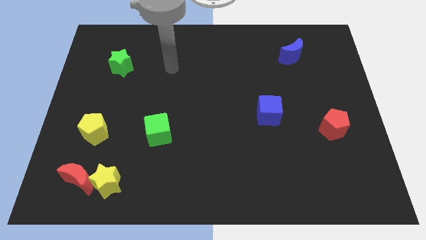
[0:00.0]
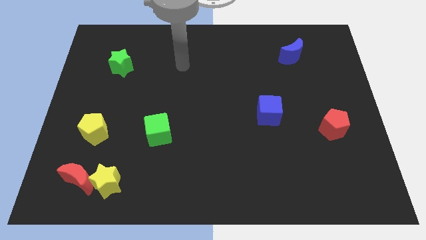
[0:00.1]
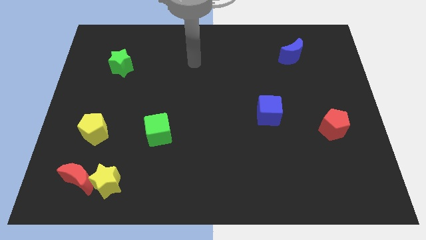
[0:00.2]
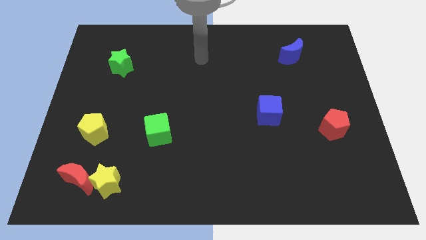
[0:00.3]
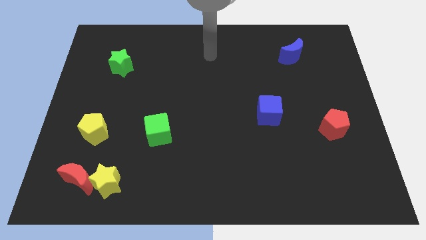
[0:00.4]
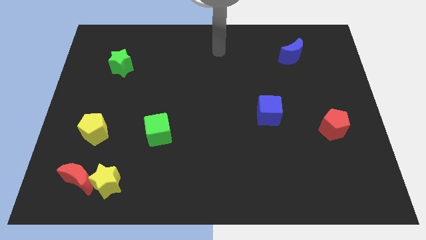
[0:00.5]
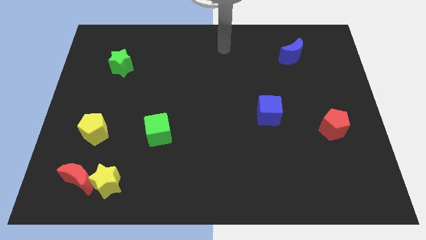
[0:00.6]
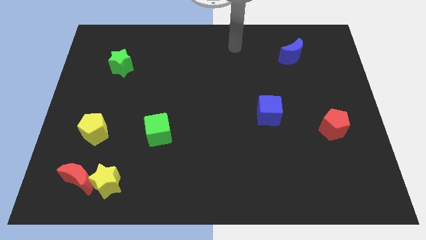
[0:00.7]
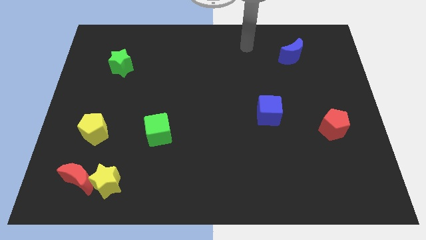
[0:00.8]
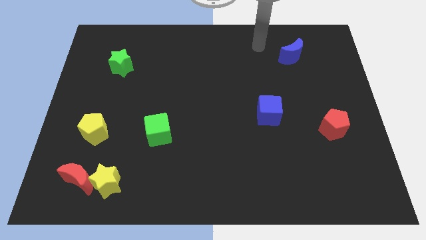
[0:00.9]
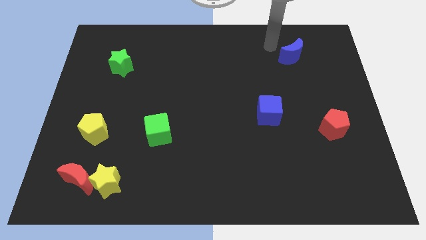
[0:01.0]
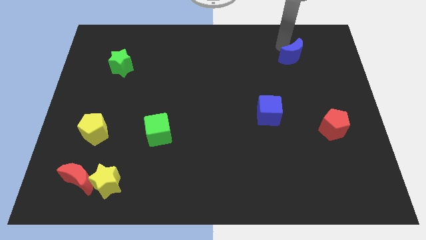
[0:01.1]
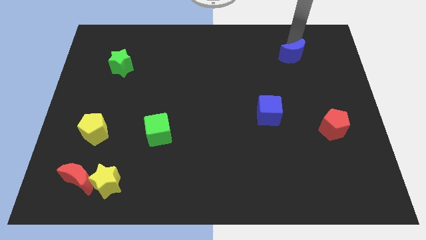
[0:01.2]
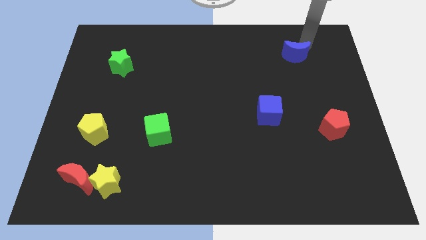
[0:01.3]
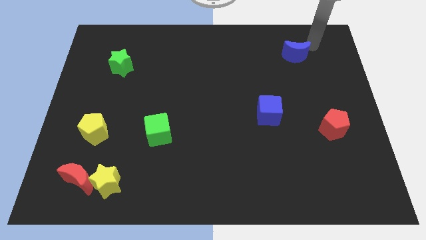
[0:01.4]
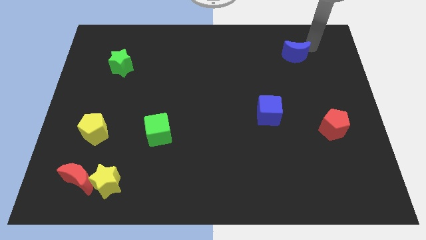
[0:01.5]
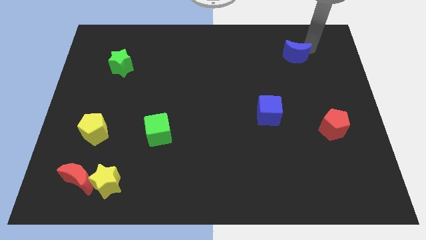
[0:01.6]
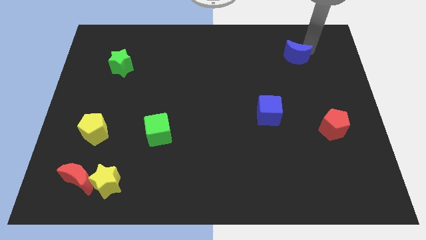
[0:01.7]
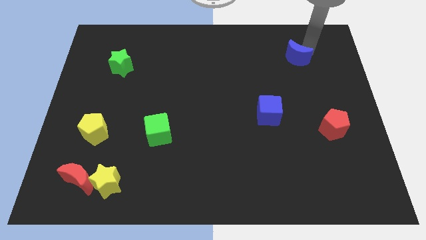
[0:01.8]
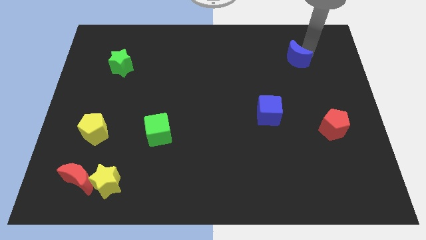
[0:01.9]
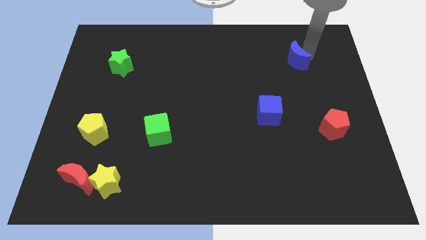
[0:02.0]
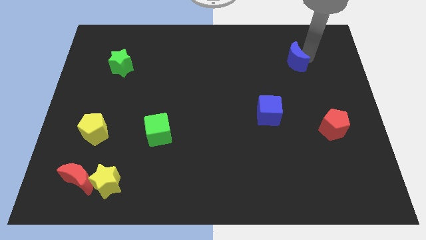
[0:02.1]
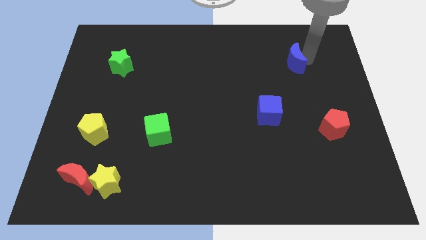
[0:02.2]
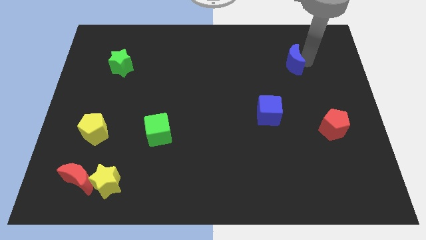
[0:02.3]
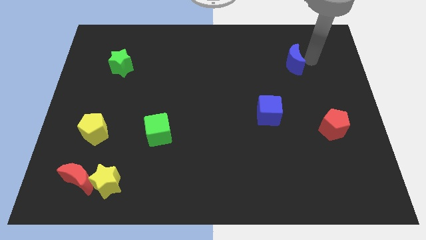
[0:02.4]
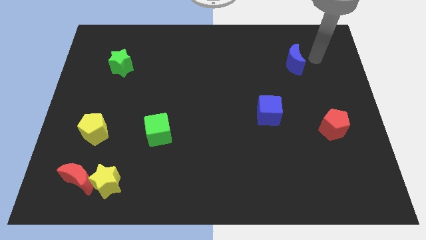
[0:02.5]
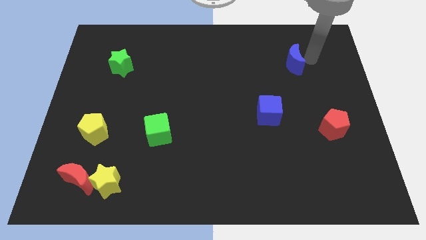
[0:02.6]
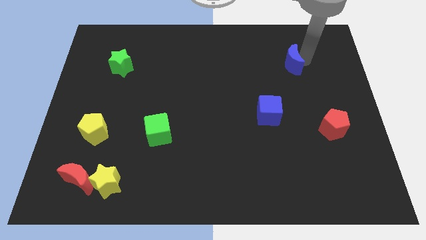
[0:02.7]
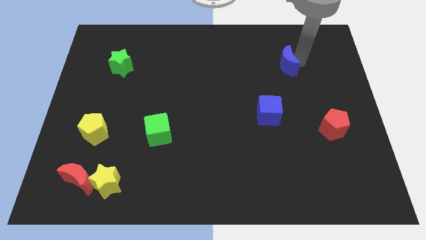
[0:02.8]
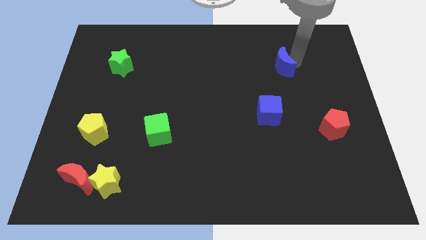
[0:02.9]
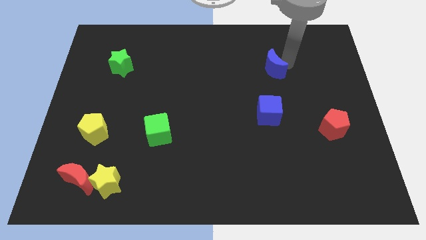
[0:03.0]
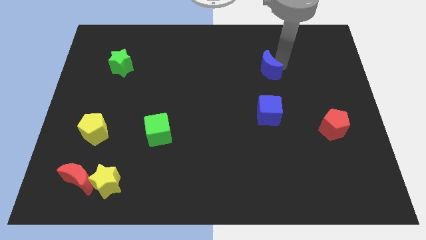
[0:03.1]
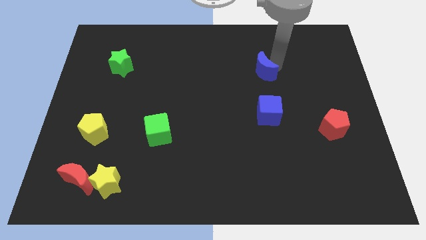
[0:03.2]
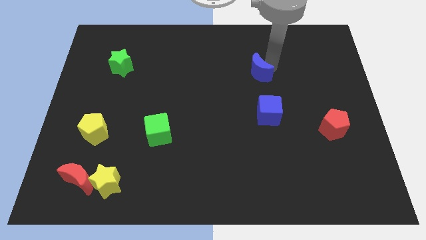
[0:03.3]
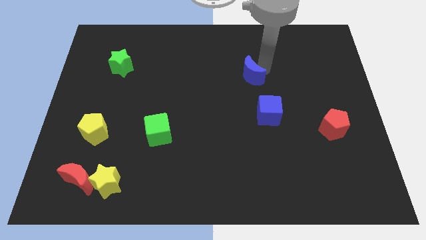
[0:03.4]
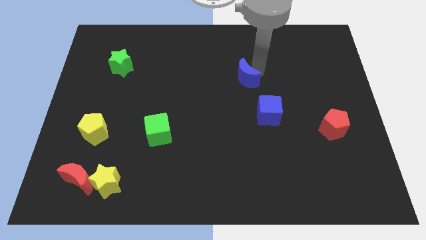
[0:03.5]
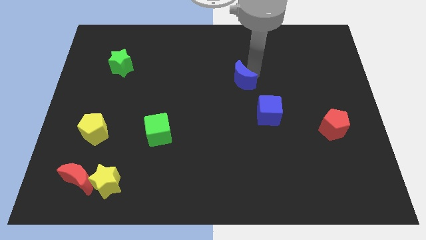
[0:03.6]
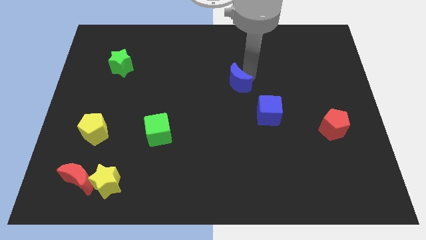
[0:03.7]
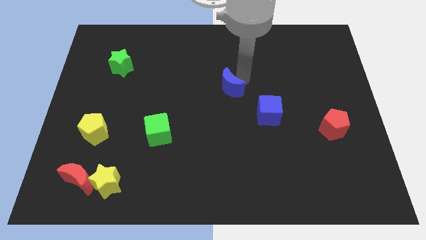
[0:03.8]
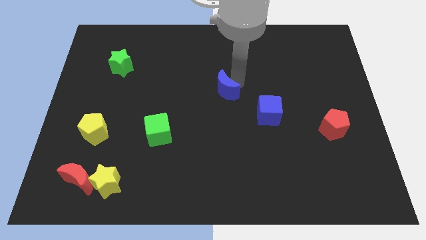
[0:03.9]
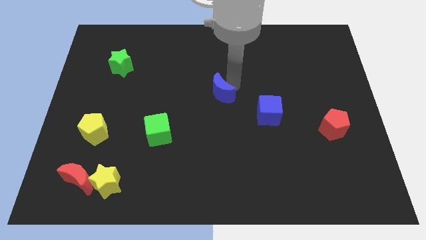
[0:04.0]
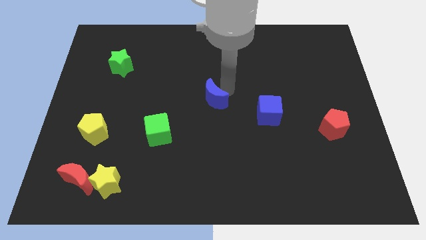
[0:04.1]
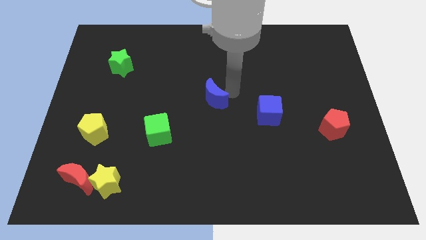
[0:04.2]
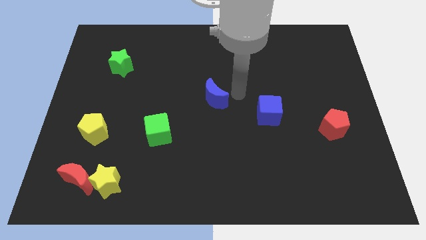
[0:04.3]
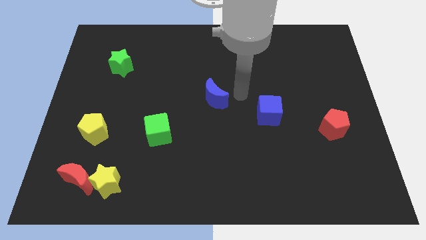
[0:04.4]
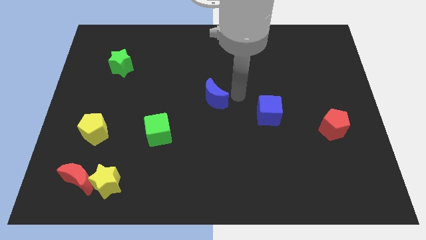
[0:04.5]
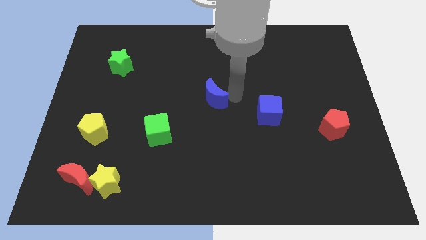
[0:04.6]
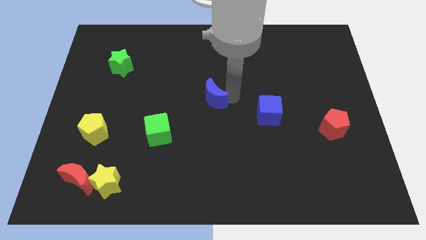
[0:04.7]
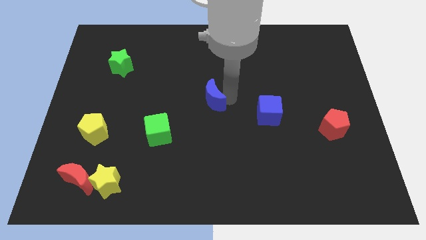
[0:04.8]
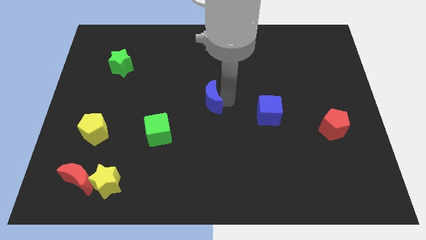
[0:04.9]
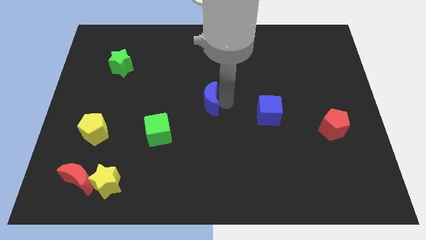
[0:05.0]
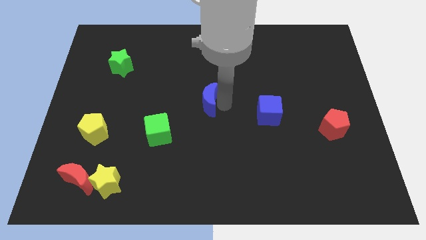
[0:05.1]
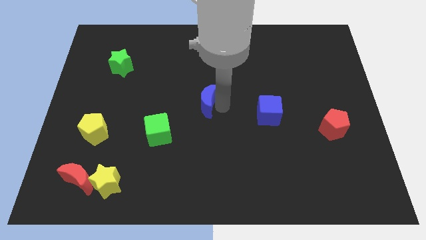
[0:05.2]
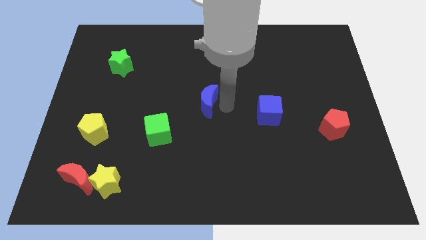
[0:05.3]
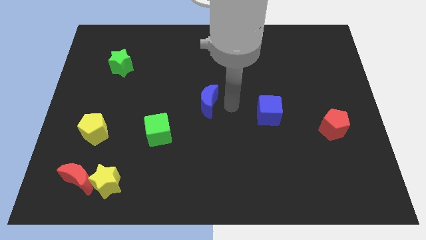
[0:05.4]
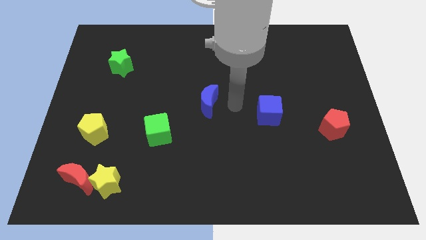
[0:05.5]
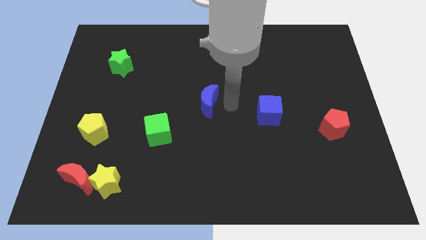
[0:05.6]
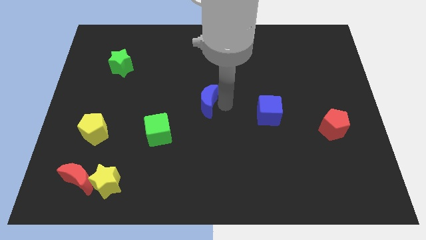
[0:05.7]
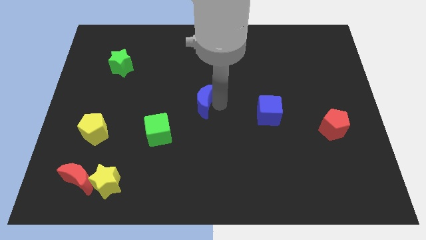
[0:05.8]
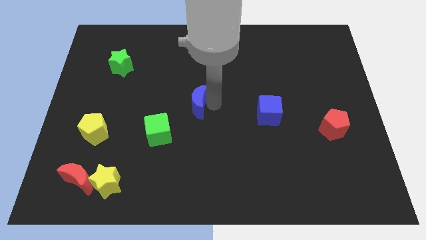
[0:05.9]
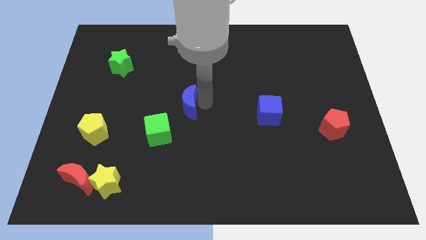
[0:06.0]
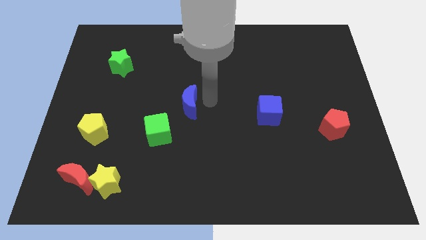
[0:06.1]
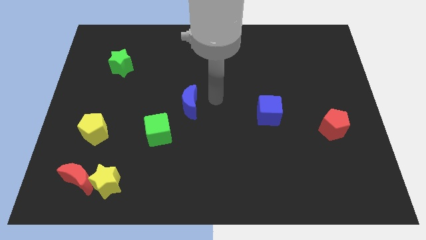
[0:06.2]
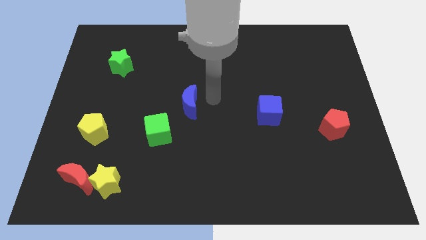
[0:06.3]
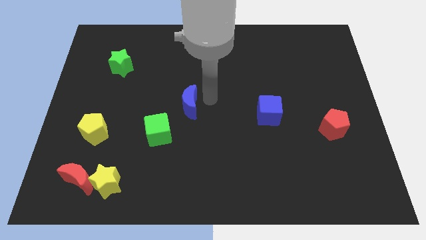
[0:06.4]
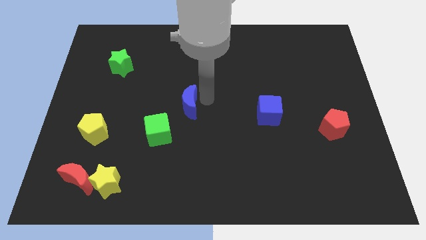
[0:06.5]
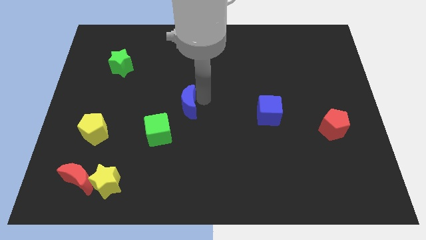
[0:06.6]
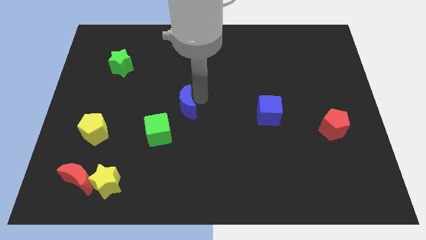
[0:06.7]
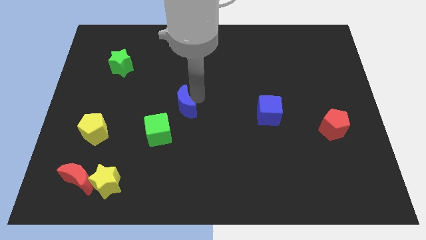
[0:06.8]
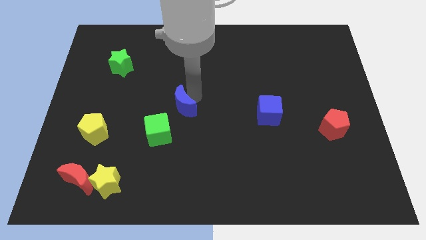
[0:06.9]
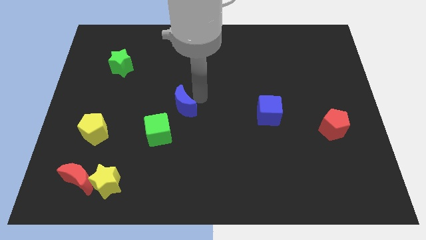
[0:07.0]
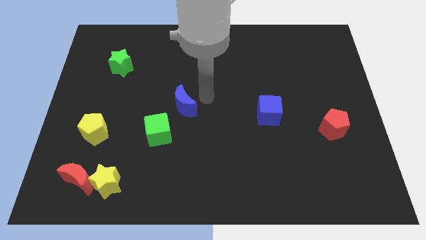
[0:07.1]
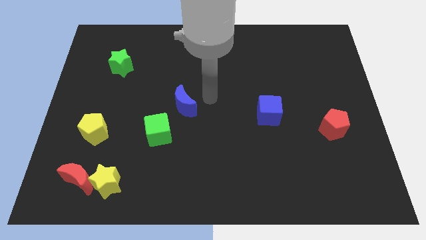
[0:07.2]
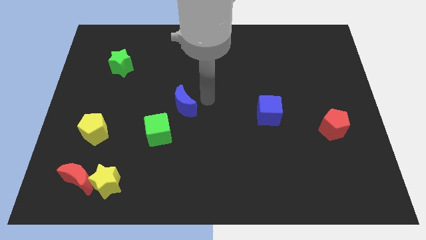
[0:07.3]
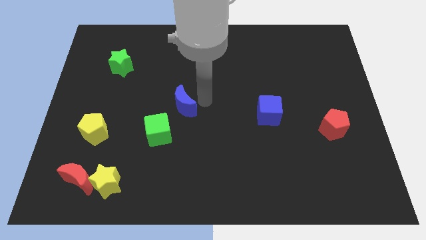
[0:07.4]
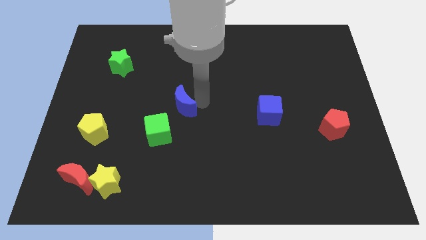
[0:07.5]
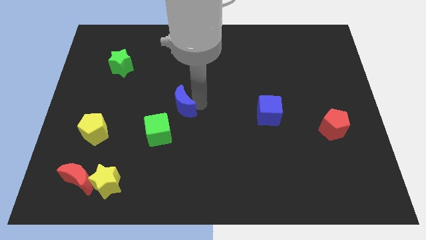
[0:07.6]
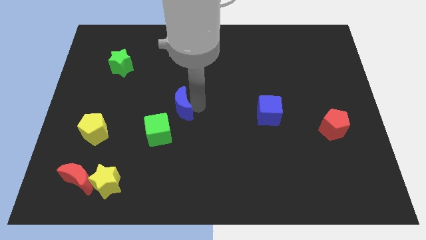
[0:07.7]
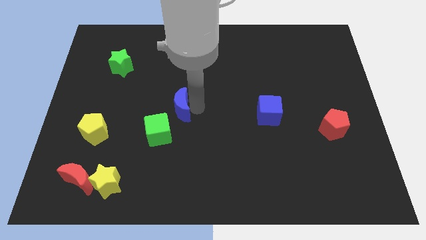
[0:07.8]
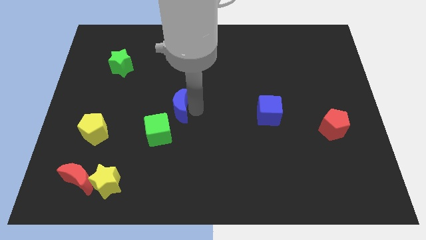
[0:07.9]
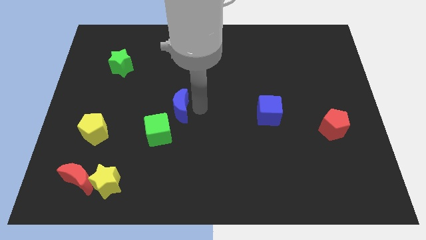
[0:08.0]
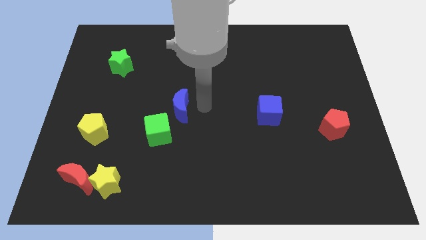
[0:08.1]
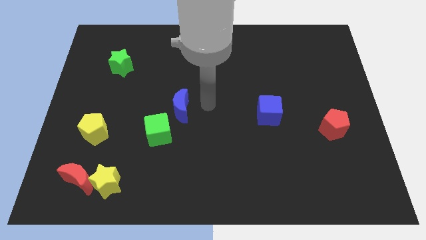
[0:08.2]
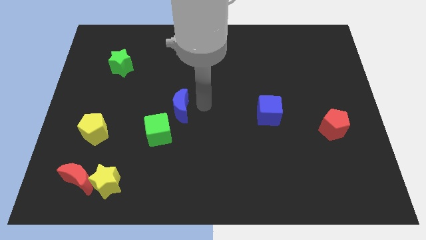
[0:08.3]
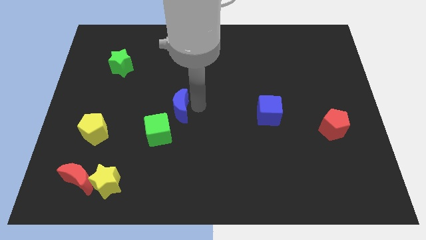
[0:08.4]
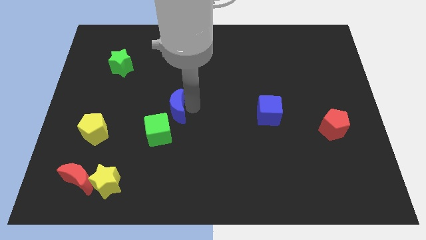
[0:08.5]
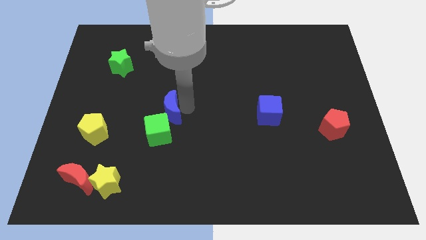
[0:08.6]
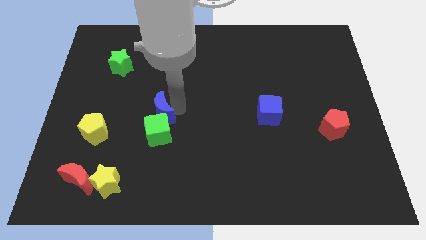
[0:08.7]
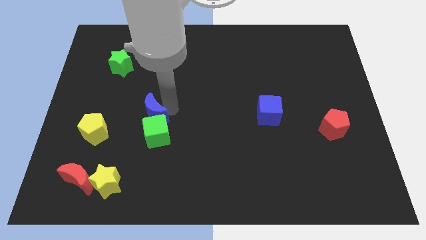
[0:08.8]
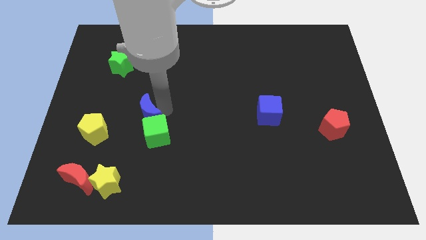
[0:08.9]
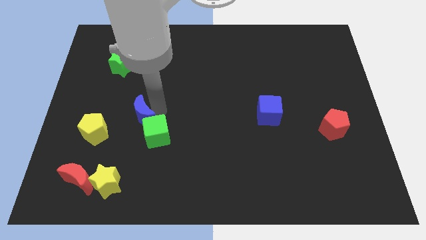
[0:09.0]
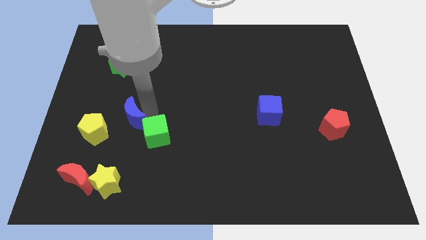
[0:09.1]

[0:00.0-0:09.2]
slide the blue moon left of the green cube
